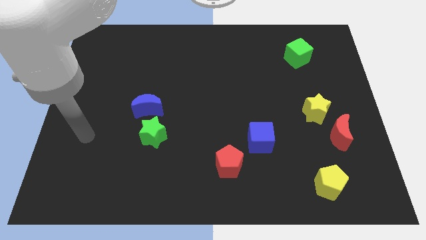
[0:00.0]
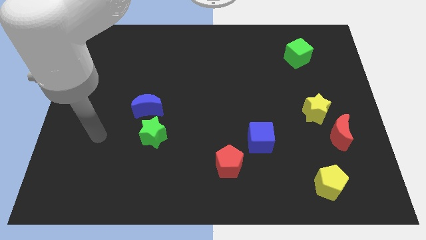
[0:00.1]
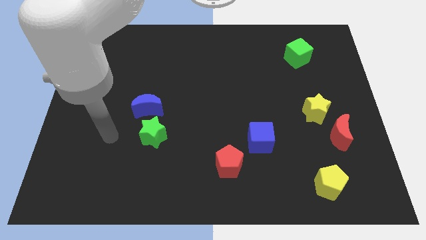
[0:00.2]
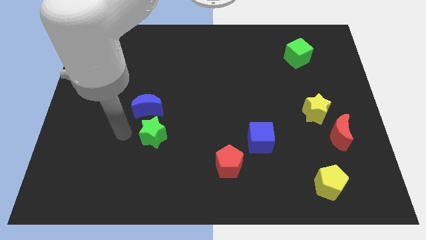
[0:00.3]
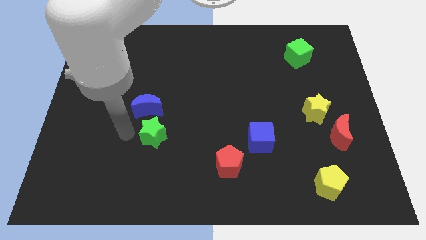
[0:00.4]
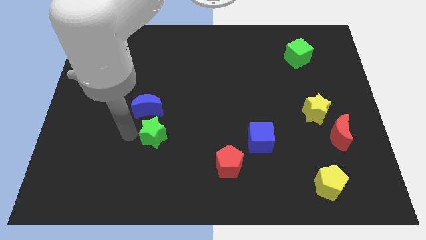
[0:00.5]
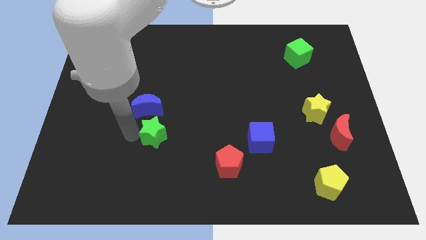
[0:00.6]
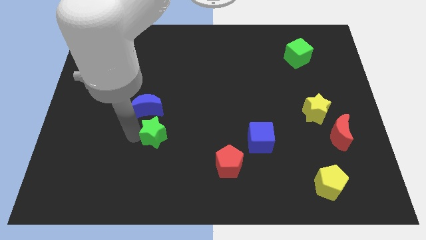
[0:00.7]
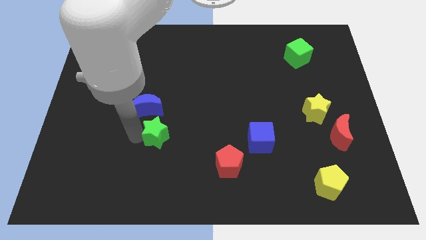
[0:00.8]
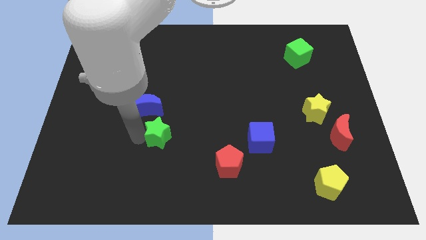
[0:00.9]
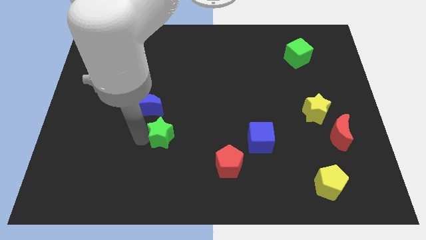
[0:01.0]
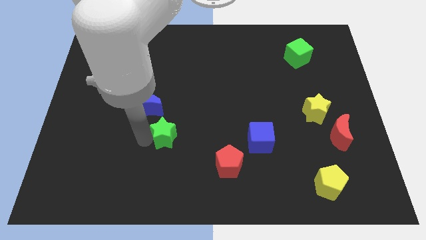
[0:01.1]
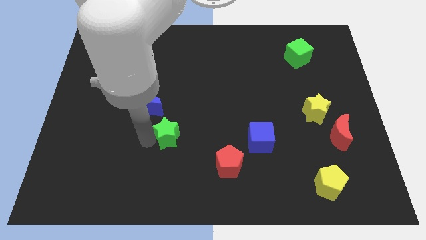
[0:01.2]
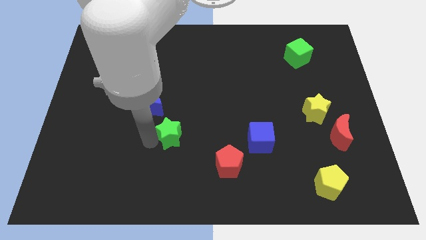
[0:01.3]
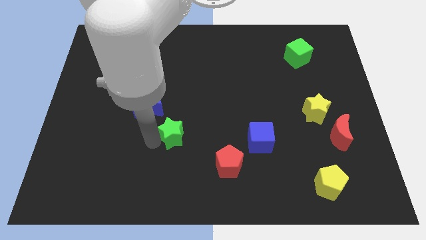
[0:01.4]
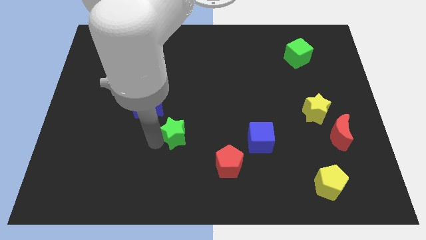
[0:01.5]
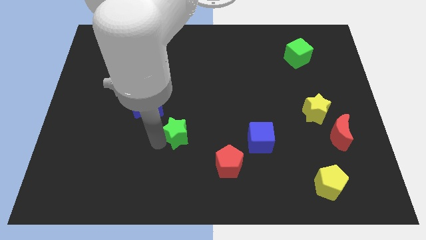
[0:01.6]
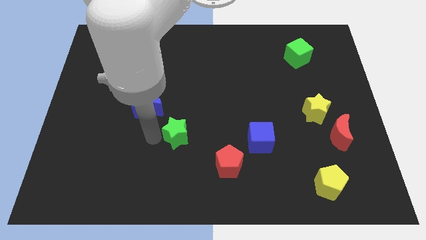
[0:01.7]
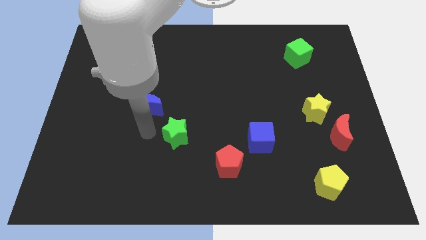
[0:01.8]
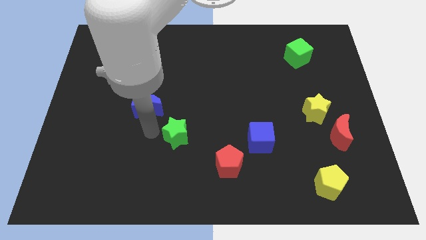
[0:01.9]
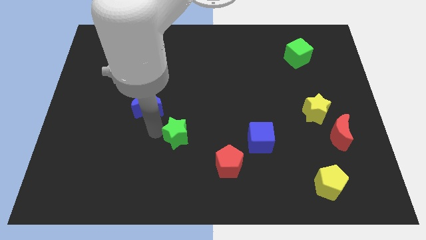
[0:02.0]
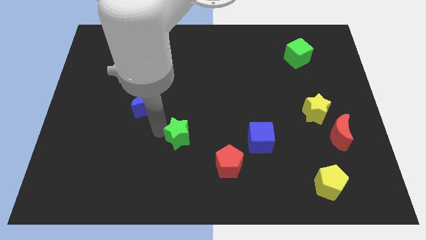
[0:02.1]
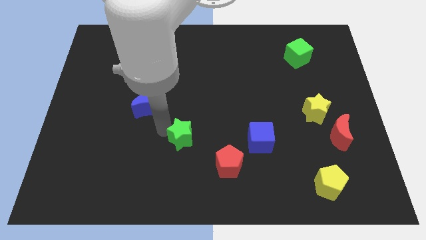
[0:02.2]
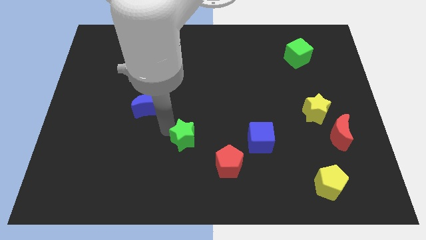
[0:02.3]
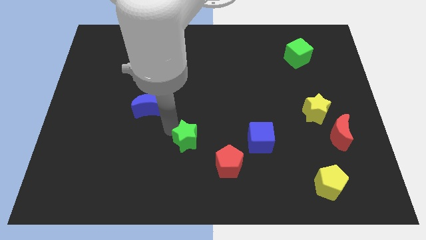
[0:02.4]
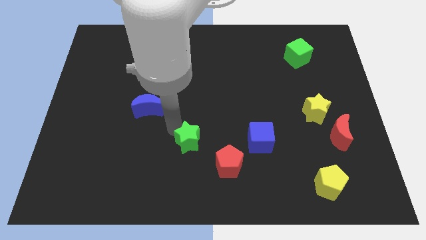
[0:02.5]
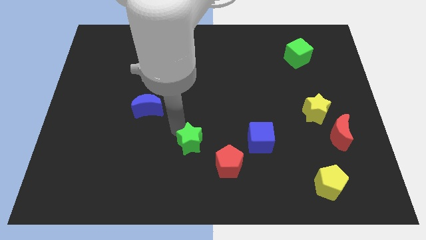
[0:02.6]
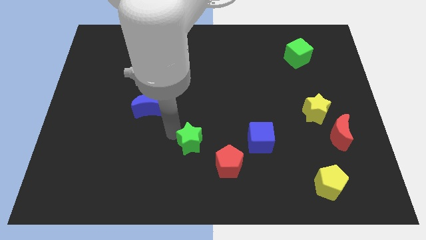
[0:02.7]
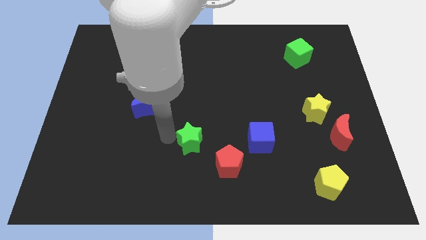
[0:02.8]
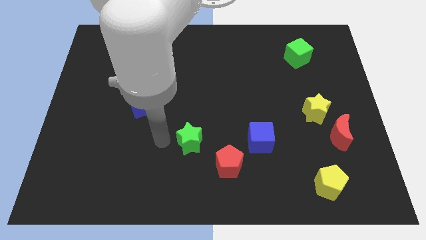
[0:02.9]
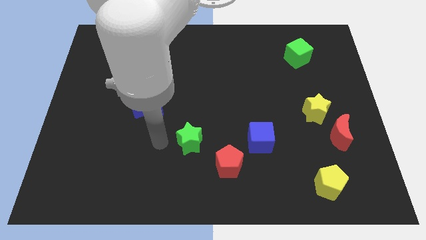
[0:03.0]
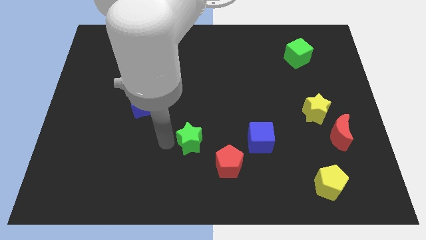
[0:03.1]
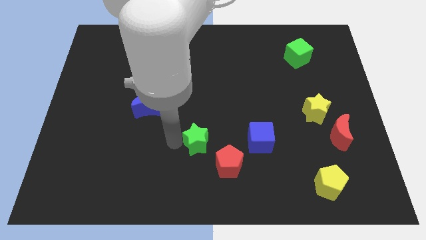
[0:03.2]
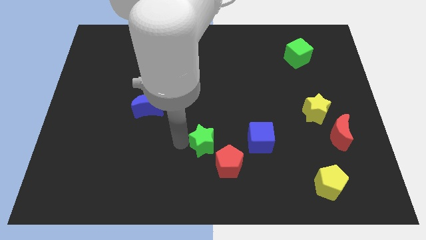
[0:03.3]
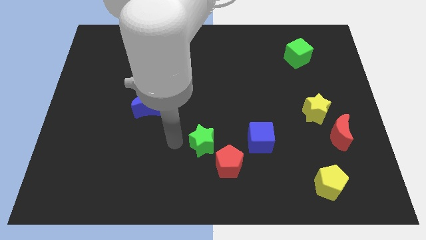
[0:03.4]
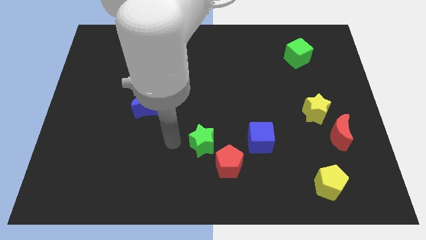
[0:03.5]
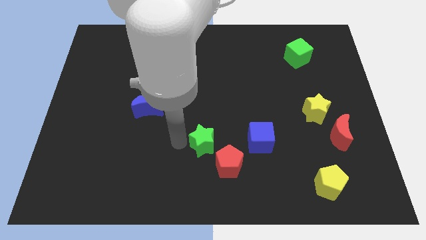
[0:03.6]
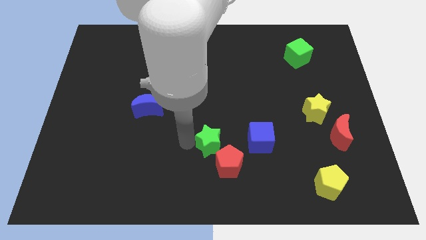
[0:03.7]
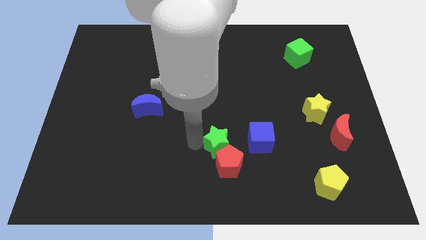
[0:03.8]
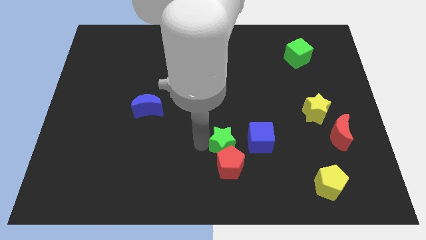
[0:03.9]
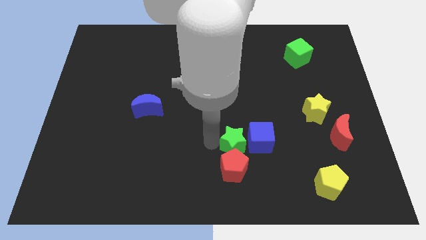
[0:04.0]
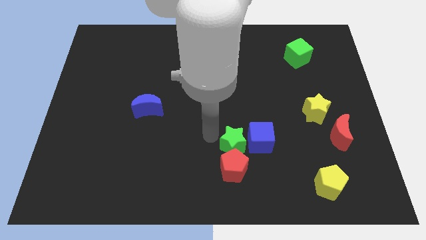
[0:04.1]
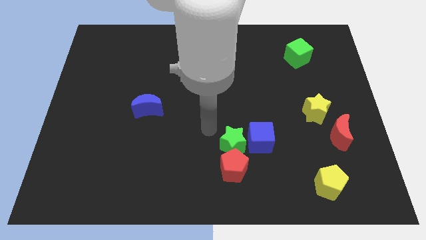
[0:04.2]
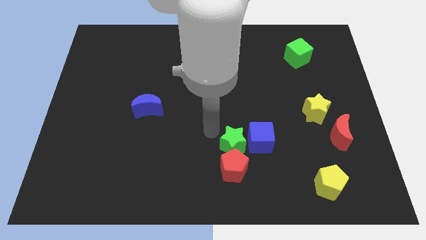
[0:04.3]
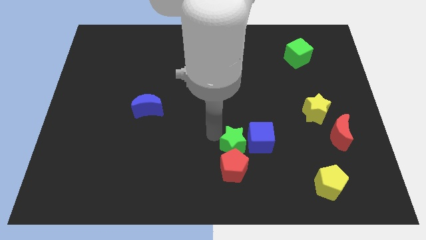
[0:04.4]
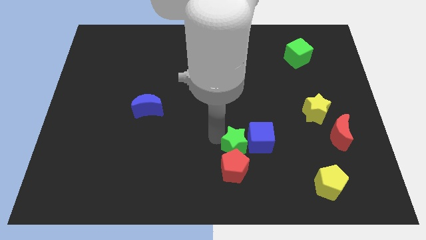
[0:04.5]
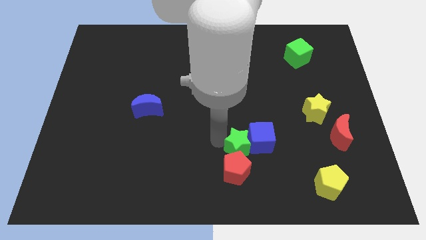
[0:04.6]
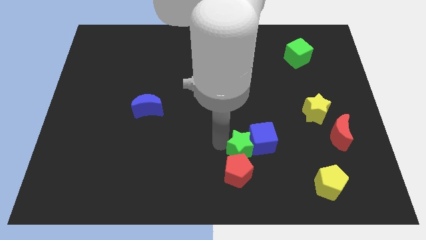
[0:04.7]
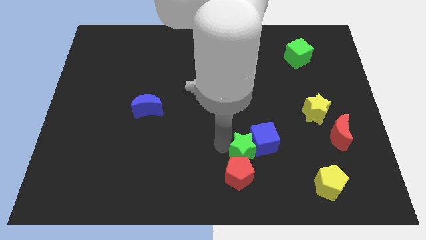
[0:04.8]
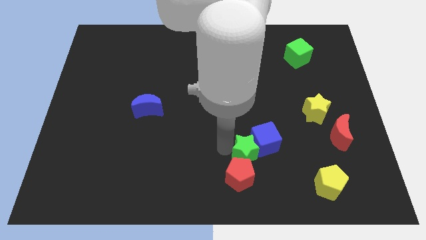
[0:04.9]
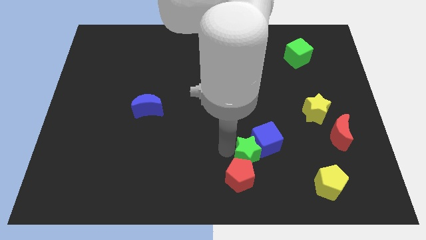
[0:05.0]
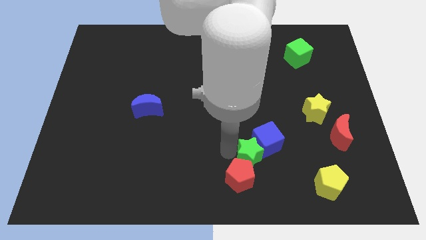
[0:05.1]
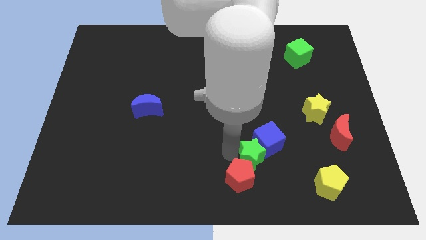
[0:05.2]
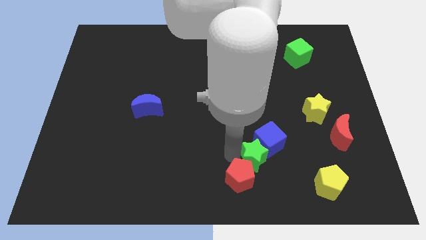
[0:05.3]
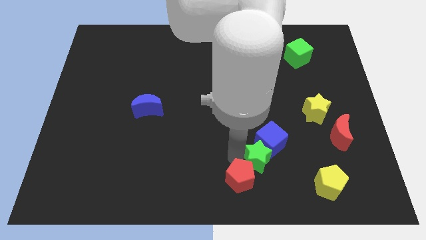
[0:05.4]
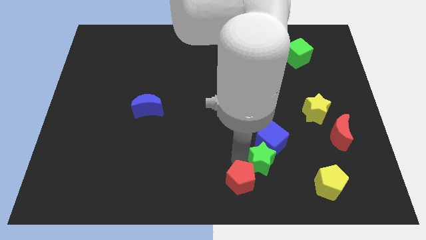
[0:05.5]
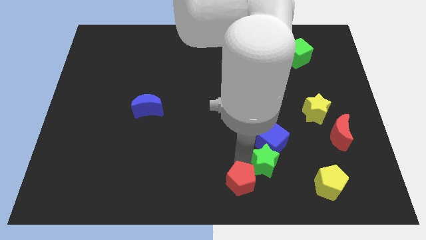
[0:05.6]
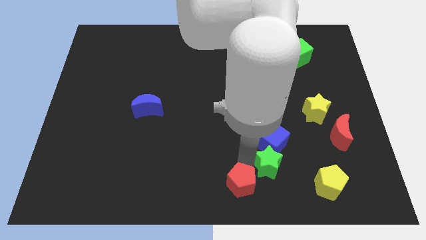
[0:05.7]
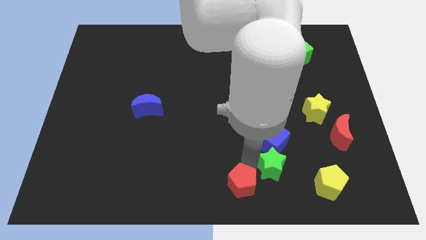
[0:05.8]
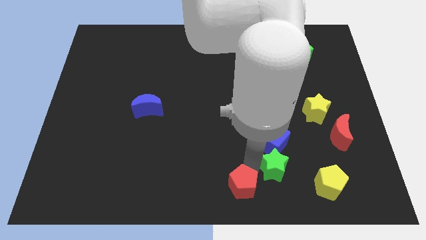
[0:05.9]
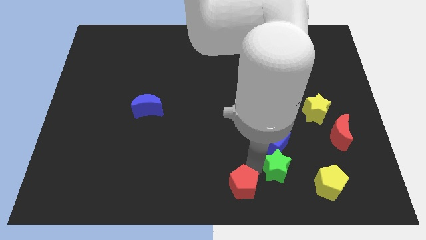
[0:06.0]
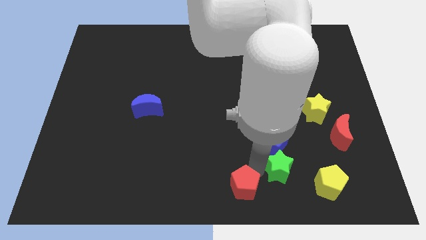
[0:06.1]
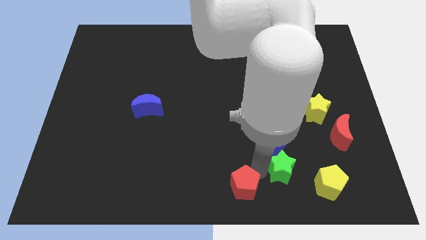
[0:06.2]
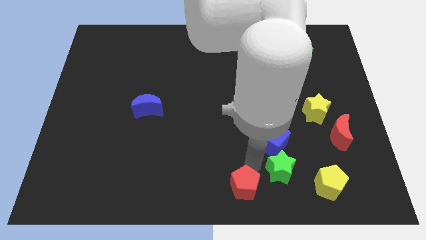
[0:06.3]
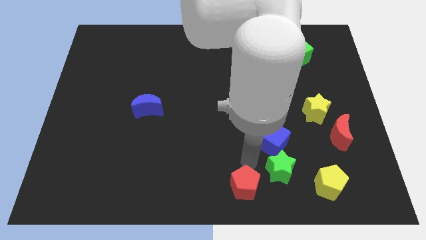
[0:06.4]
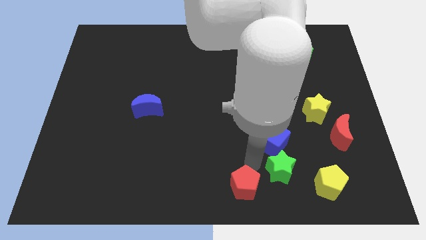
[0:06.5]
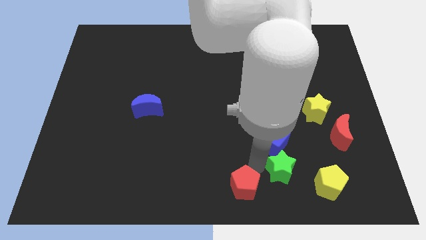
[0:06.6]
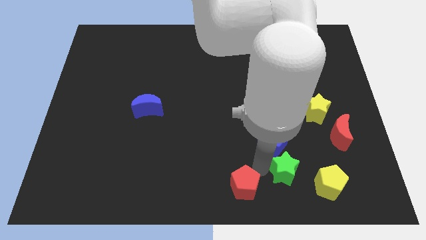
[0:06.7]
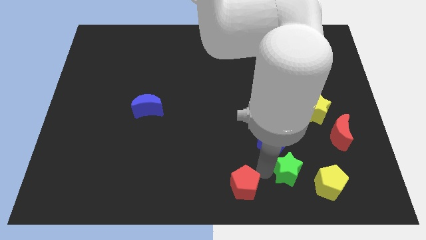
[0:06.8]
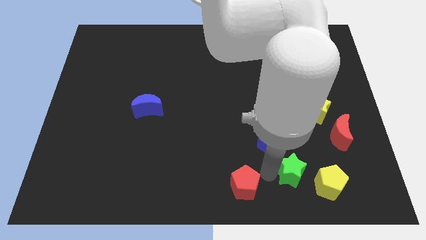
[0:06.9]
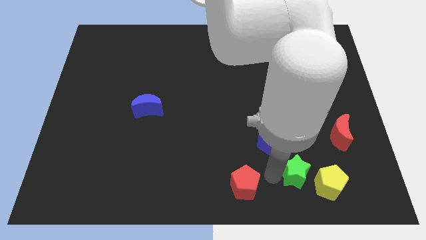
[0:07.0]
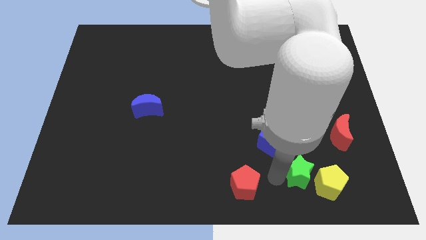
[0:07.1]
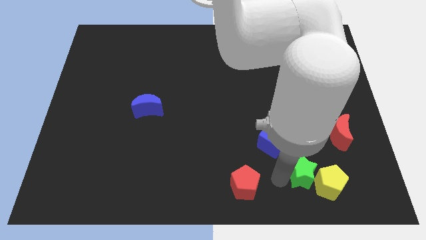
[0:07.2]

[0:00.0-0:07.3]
push the green star towards the yellow pentagon
